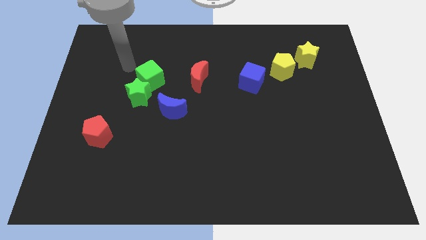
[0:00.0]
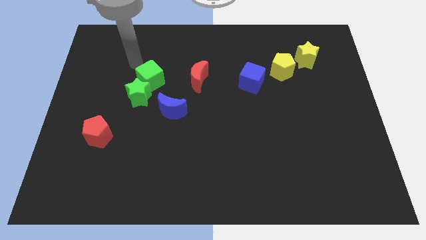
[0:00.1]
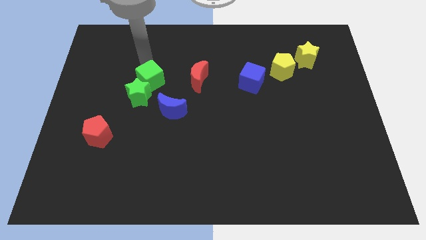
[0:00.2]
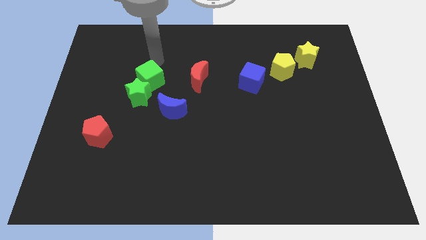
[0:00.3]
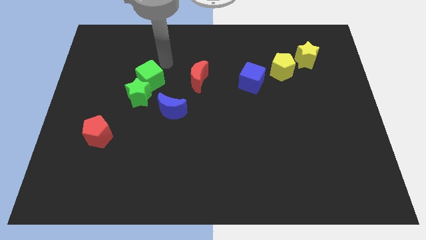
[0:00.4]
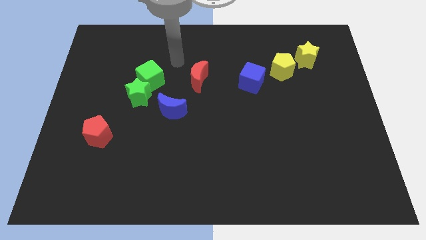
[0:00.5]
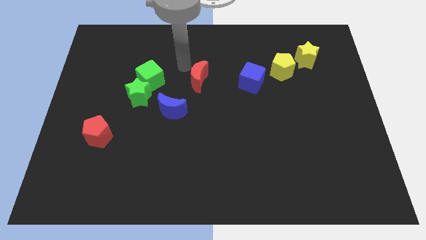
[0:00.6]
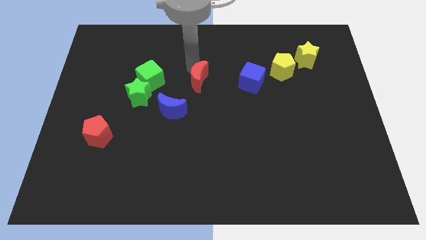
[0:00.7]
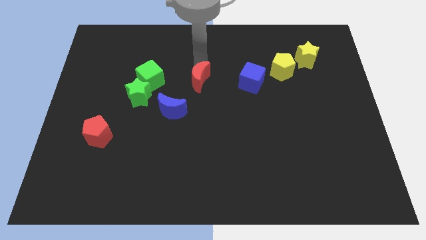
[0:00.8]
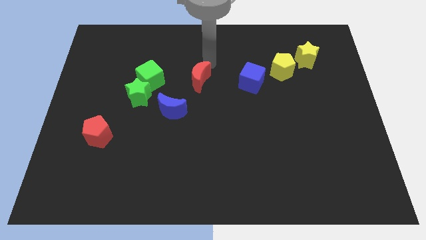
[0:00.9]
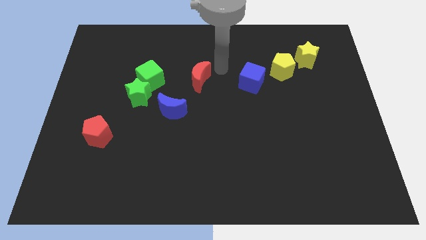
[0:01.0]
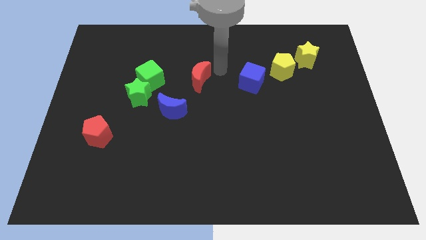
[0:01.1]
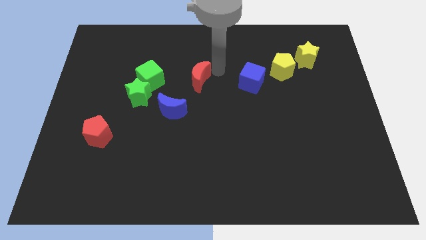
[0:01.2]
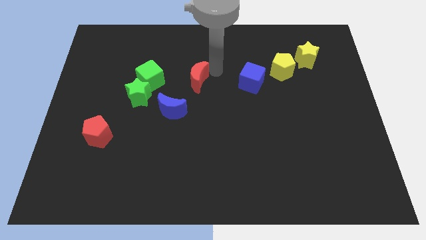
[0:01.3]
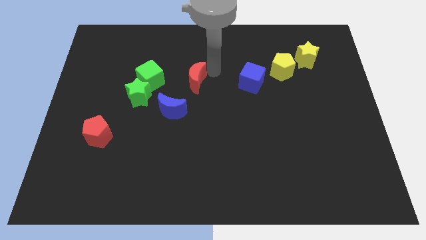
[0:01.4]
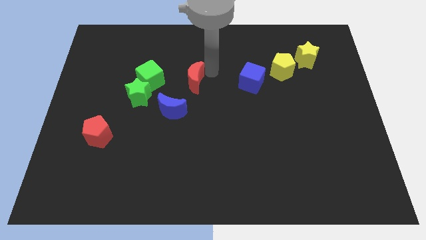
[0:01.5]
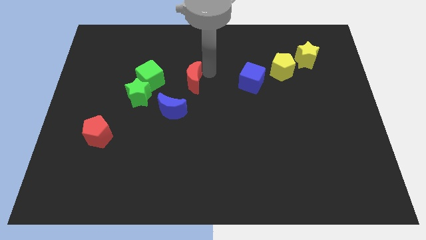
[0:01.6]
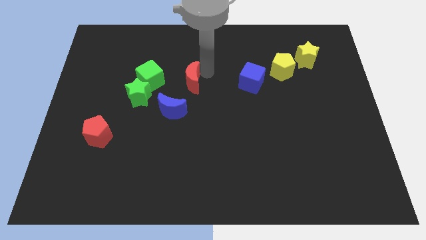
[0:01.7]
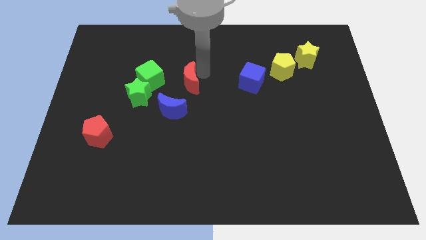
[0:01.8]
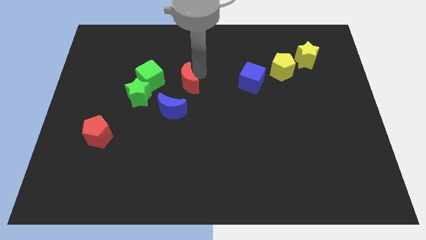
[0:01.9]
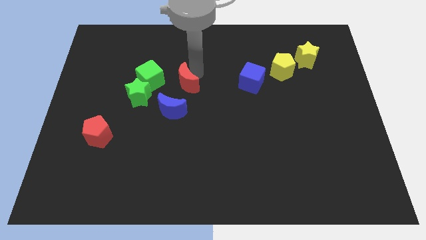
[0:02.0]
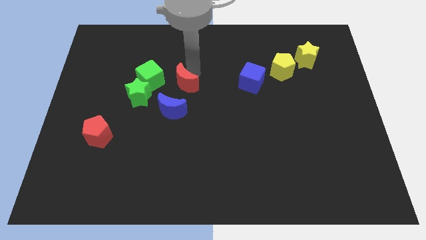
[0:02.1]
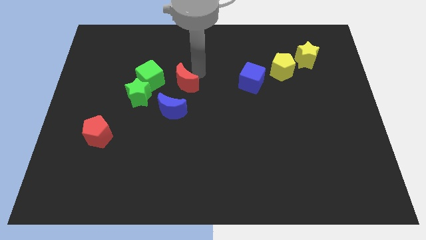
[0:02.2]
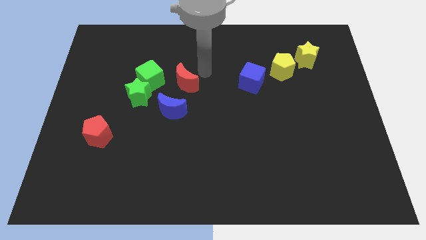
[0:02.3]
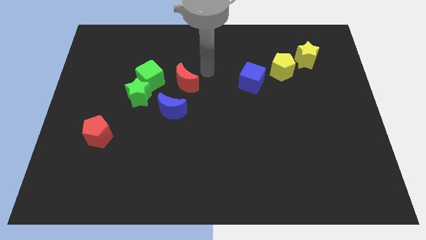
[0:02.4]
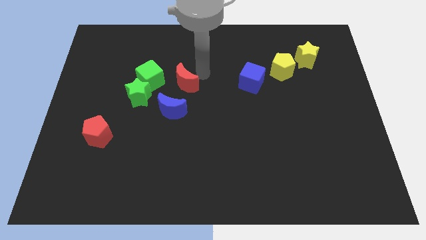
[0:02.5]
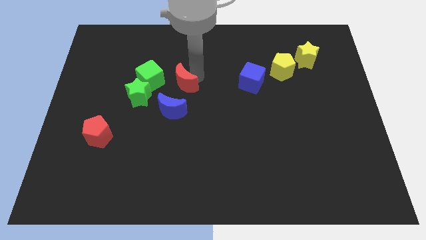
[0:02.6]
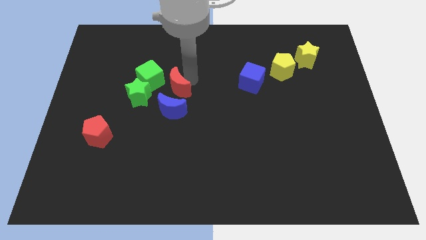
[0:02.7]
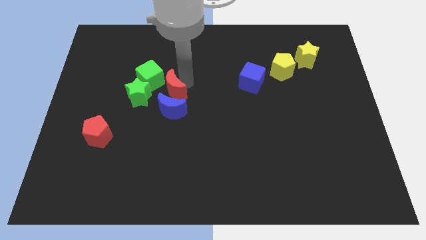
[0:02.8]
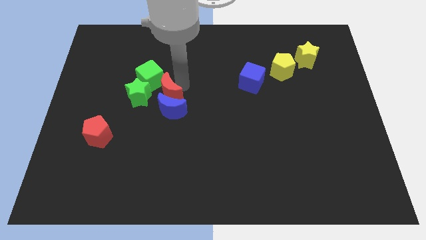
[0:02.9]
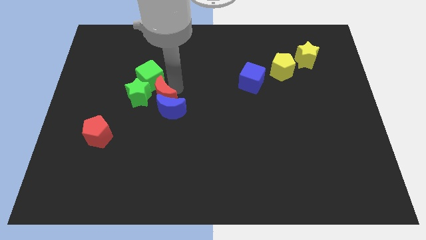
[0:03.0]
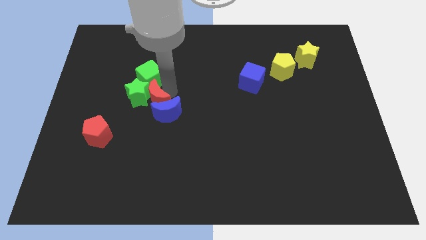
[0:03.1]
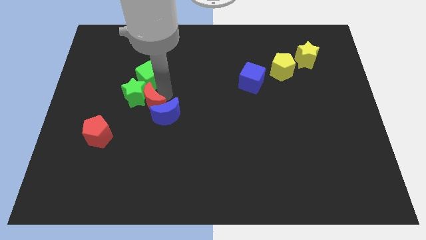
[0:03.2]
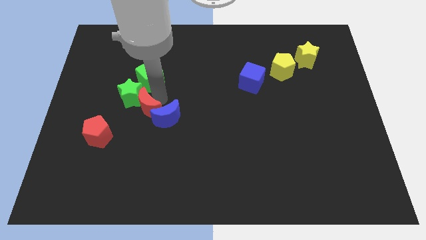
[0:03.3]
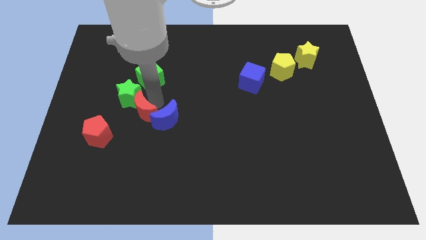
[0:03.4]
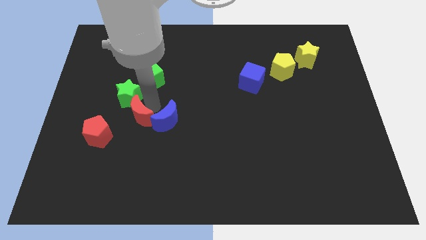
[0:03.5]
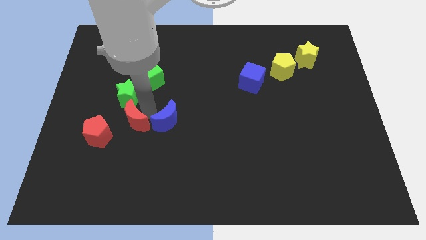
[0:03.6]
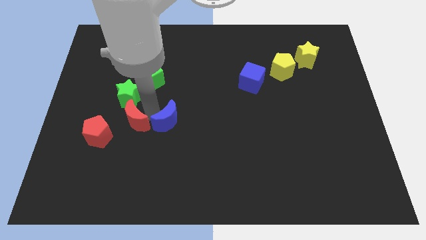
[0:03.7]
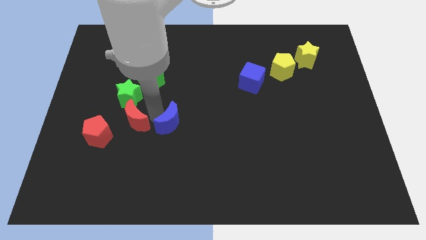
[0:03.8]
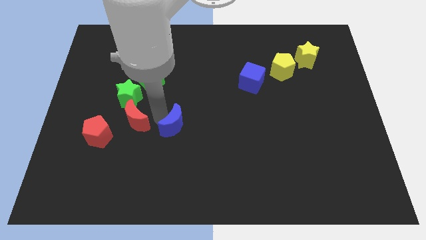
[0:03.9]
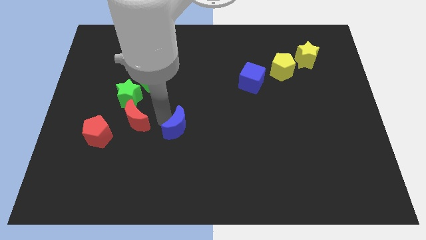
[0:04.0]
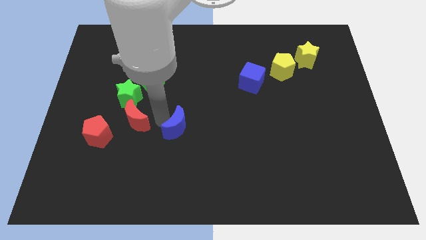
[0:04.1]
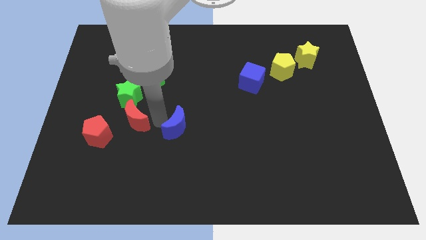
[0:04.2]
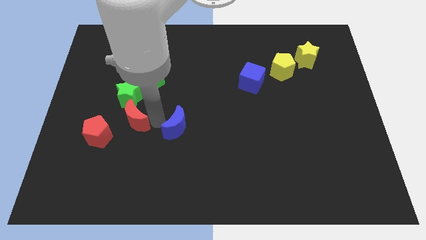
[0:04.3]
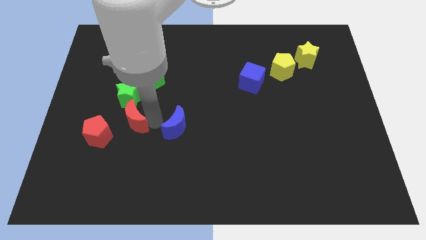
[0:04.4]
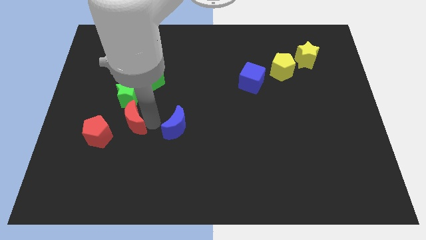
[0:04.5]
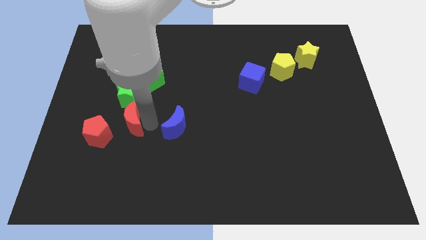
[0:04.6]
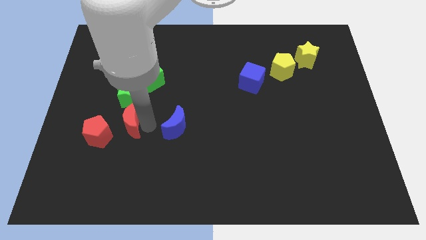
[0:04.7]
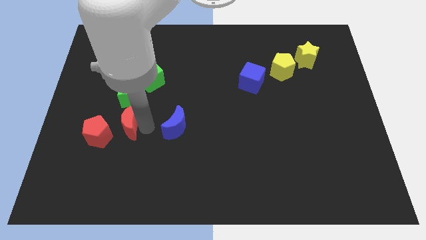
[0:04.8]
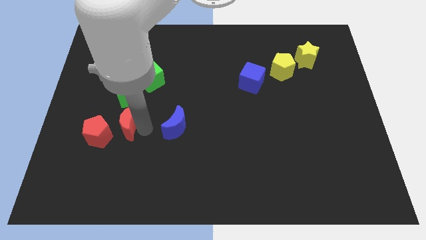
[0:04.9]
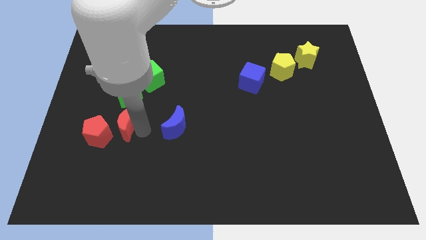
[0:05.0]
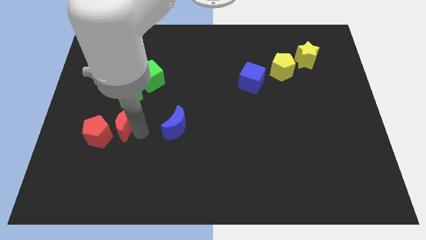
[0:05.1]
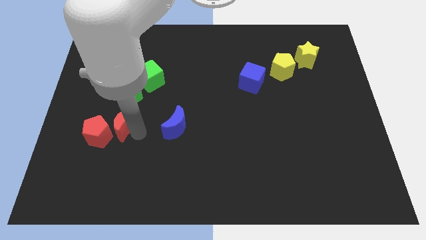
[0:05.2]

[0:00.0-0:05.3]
put the red moon towards the red pentagon

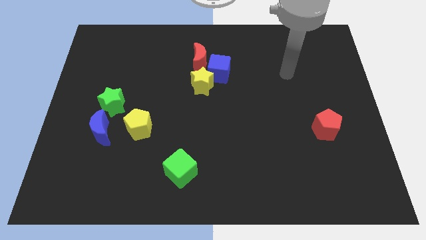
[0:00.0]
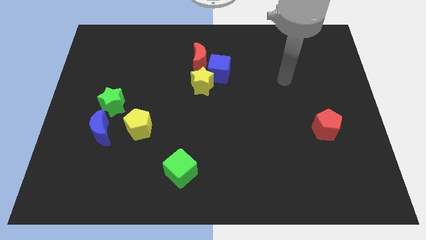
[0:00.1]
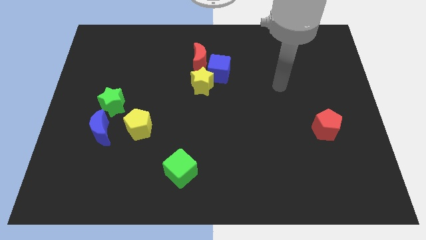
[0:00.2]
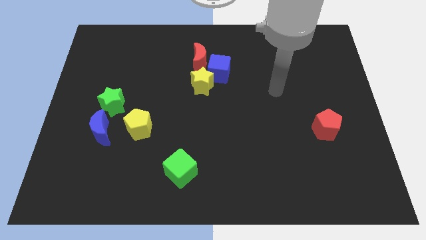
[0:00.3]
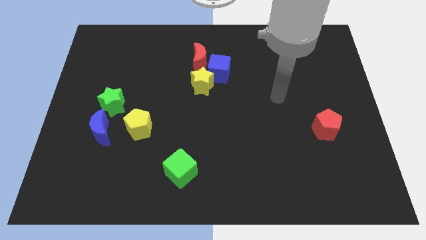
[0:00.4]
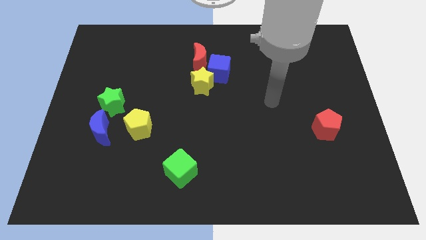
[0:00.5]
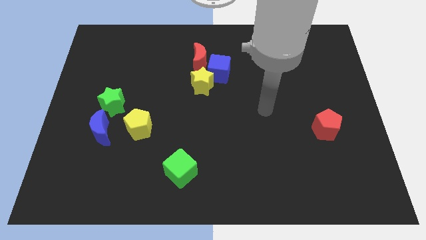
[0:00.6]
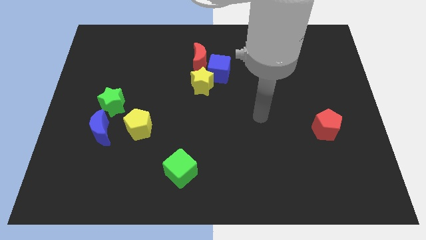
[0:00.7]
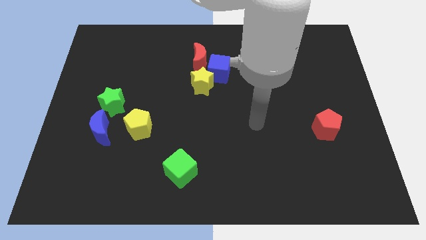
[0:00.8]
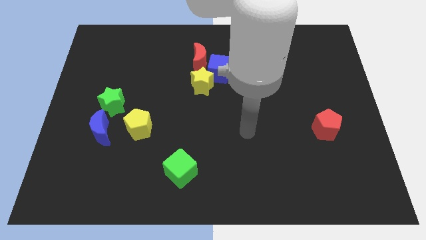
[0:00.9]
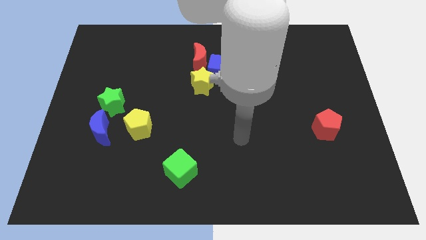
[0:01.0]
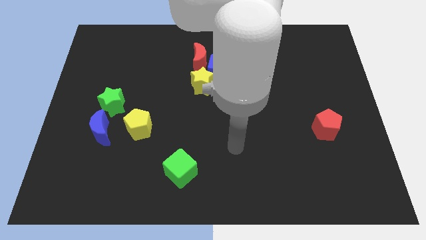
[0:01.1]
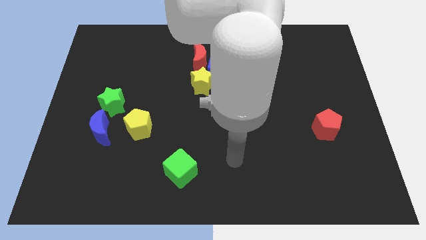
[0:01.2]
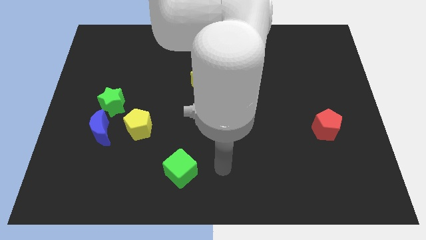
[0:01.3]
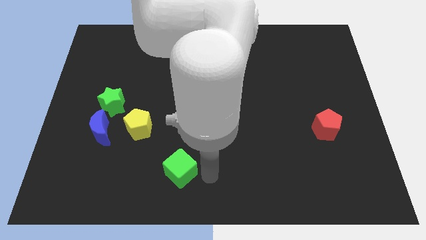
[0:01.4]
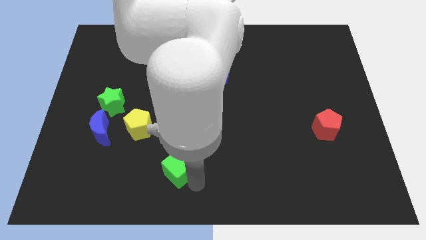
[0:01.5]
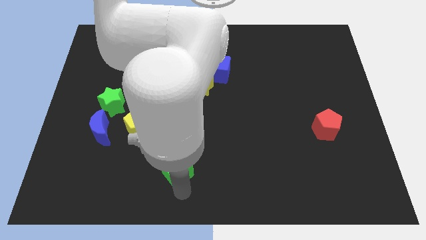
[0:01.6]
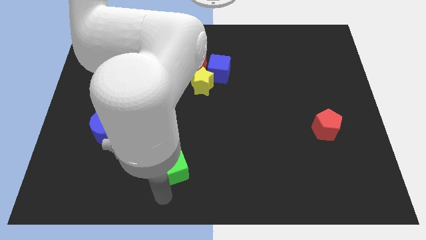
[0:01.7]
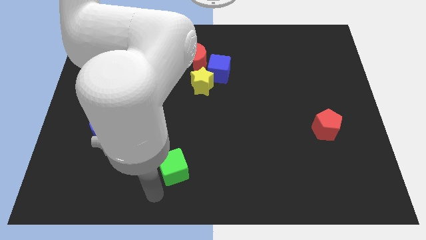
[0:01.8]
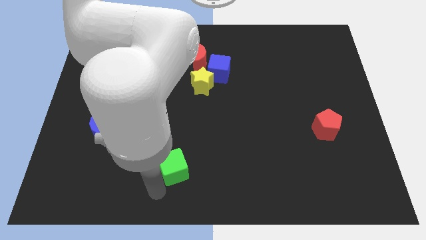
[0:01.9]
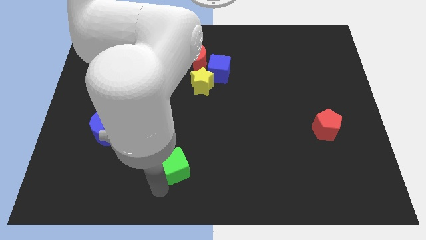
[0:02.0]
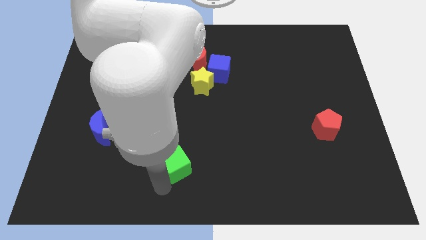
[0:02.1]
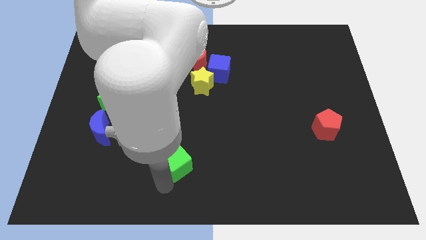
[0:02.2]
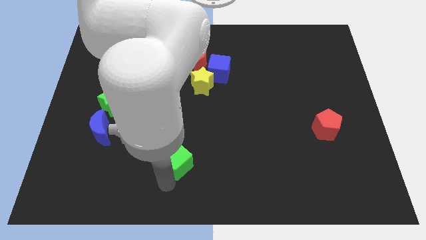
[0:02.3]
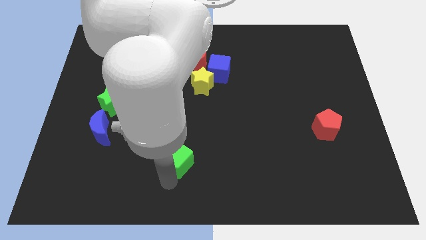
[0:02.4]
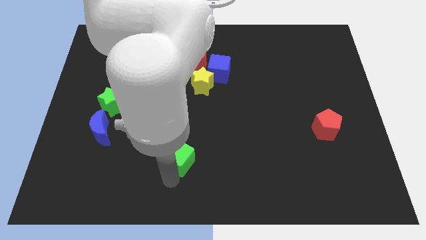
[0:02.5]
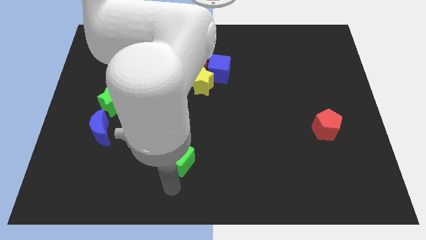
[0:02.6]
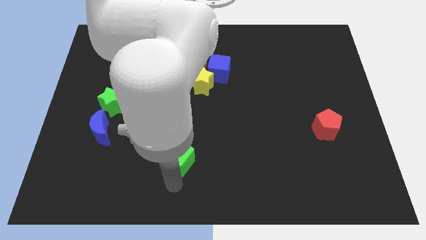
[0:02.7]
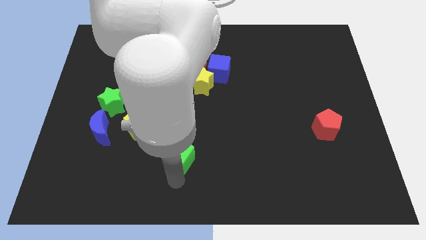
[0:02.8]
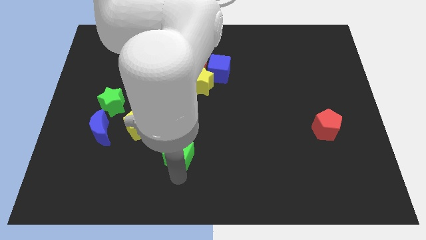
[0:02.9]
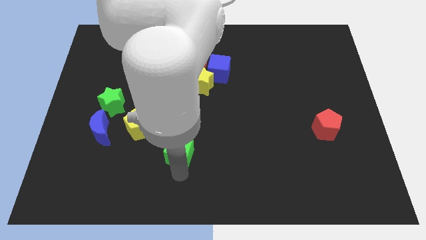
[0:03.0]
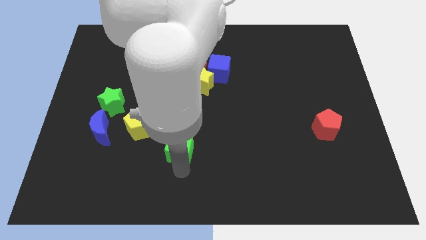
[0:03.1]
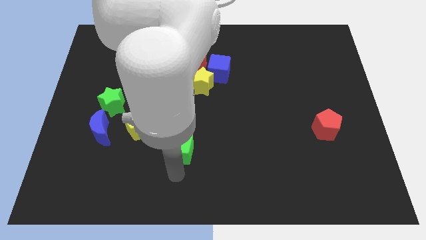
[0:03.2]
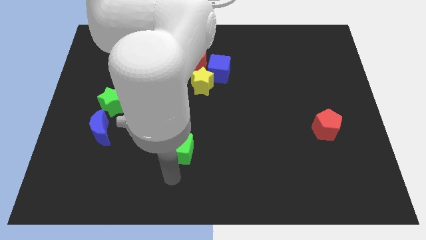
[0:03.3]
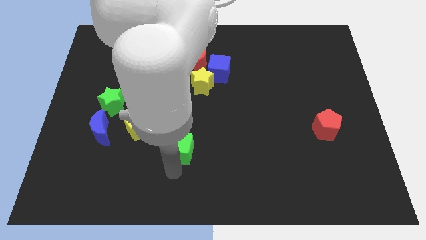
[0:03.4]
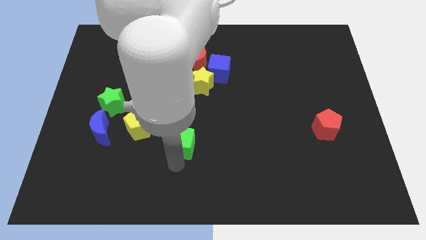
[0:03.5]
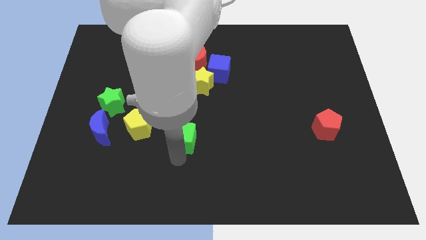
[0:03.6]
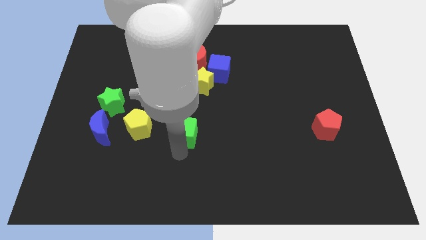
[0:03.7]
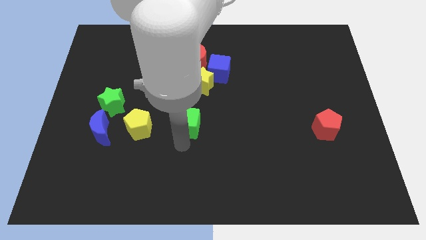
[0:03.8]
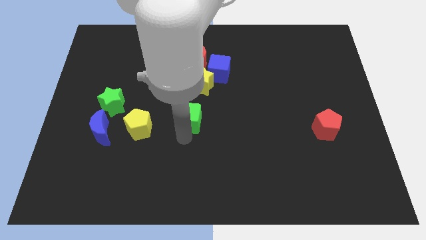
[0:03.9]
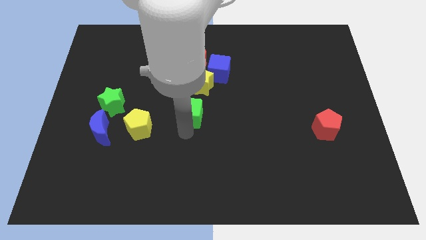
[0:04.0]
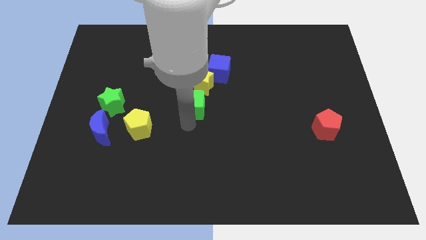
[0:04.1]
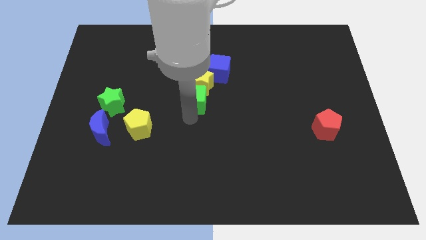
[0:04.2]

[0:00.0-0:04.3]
put the green cube close to the yellow star
